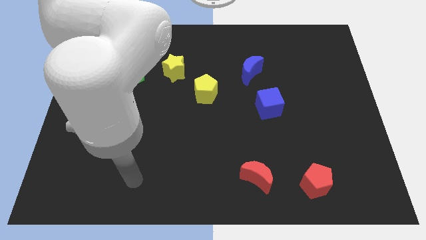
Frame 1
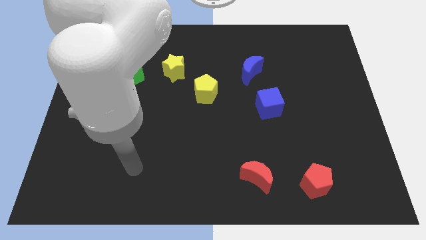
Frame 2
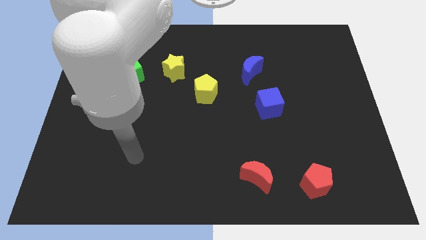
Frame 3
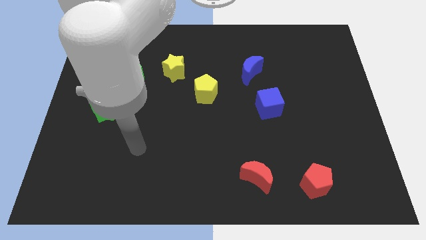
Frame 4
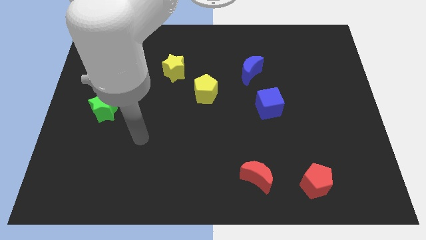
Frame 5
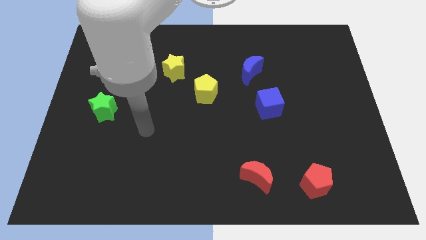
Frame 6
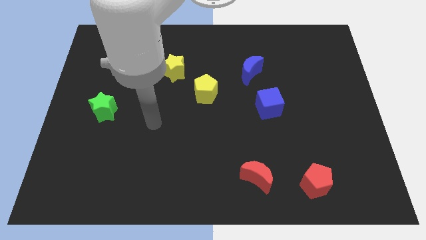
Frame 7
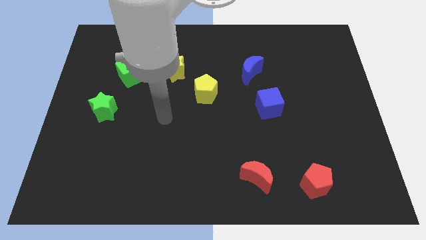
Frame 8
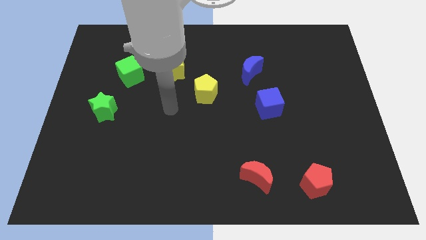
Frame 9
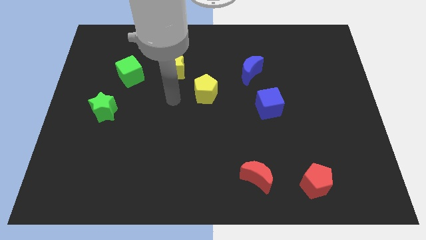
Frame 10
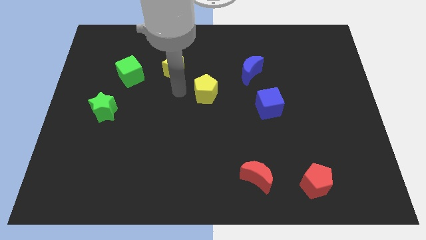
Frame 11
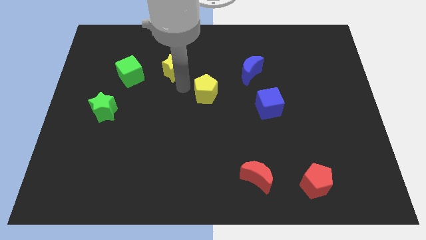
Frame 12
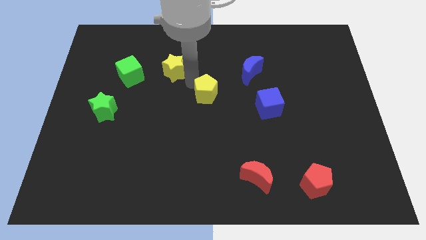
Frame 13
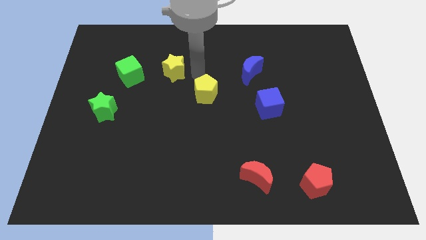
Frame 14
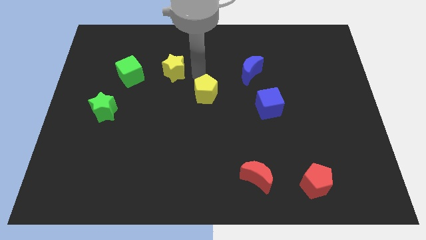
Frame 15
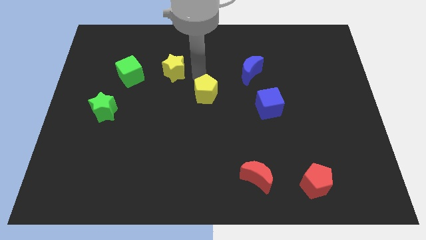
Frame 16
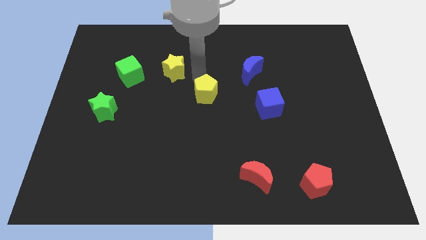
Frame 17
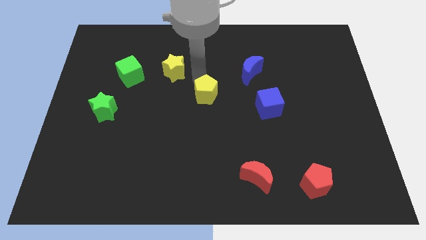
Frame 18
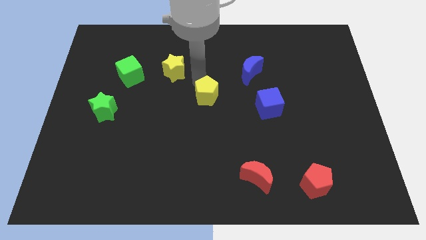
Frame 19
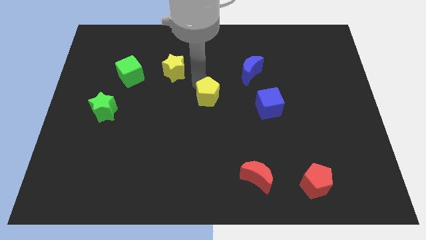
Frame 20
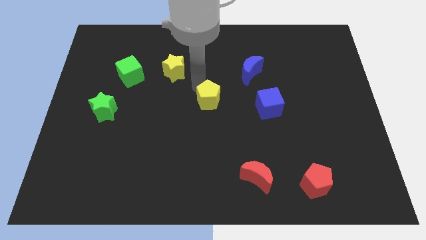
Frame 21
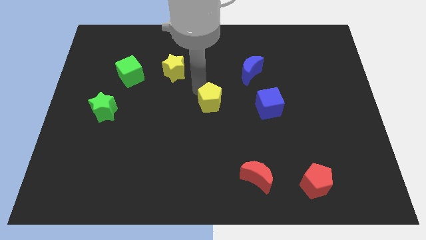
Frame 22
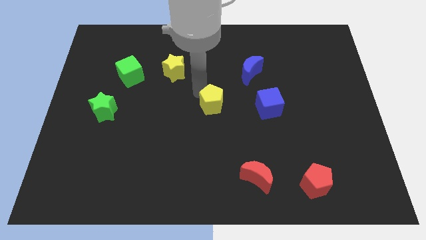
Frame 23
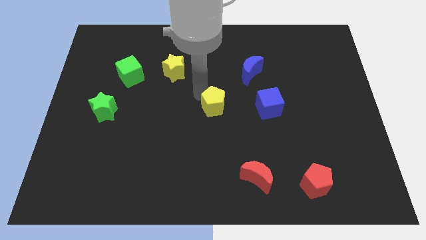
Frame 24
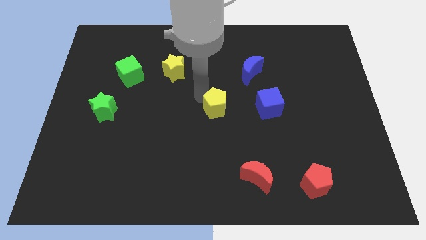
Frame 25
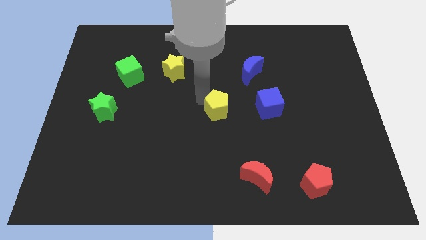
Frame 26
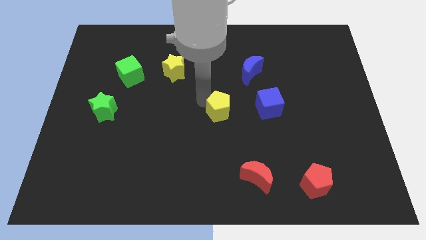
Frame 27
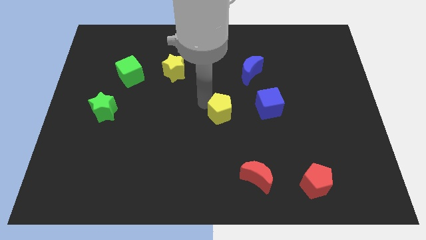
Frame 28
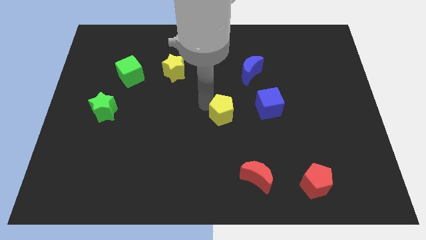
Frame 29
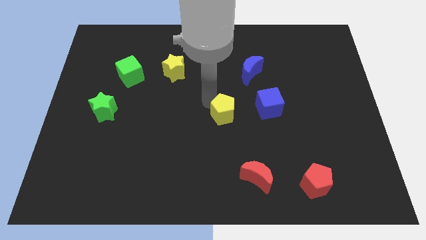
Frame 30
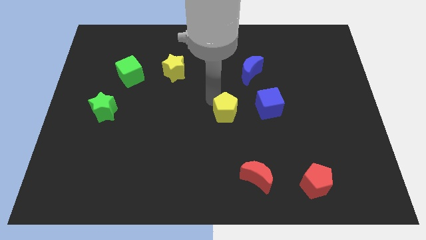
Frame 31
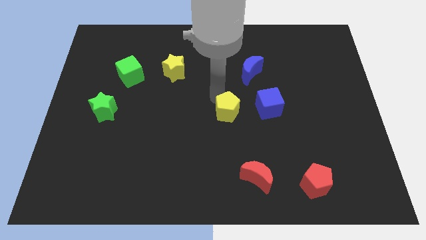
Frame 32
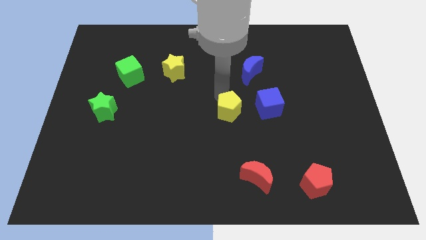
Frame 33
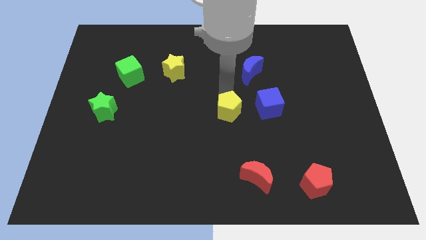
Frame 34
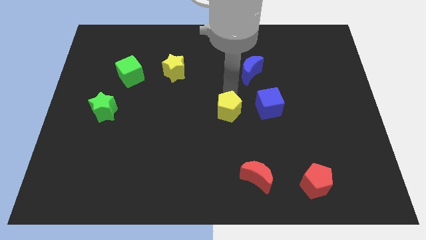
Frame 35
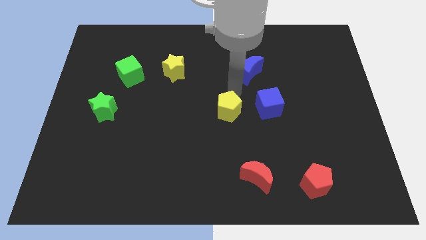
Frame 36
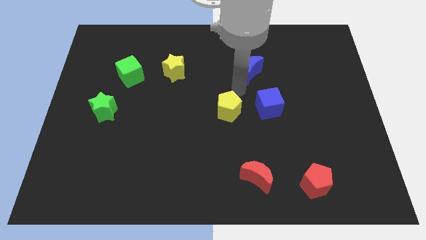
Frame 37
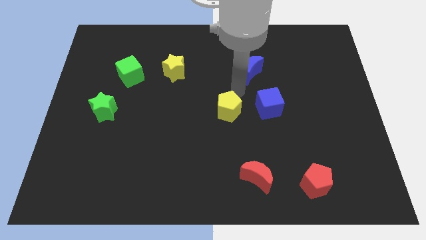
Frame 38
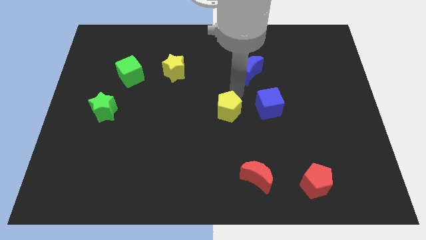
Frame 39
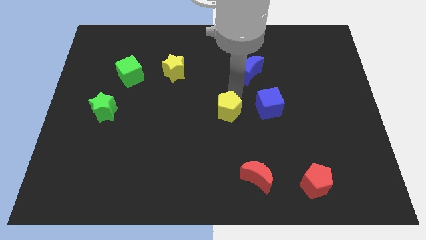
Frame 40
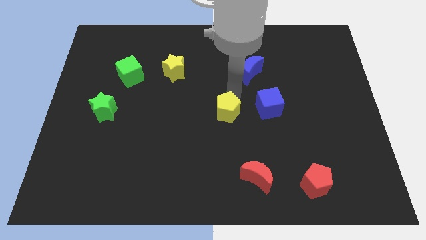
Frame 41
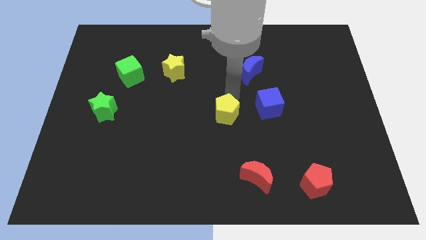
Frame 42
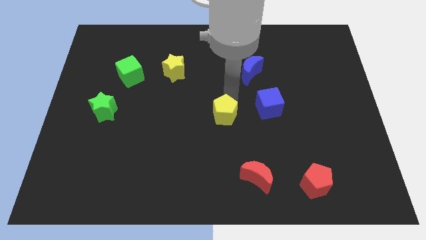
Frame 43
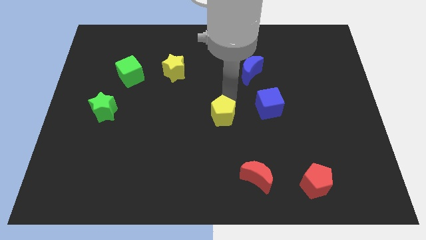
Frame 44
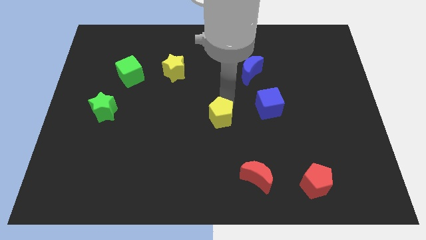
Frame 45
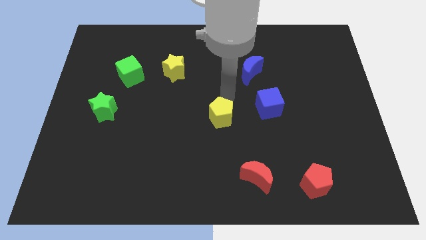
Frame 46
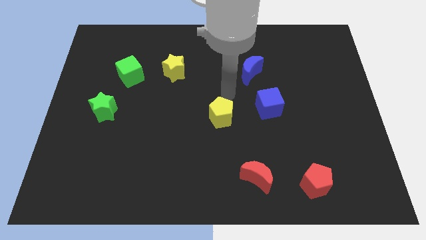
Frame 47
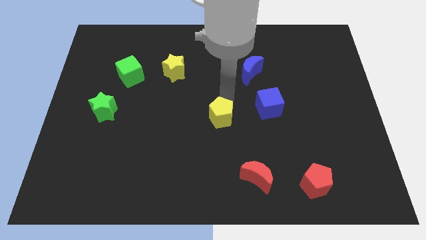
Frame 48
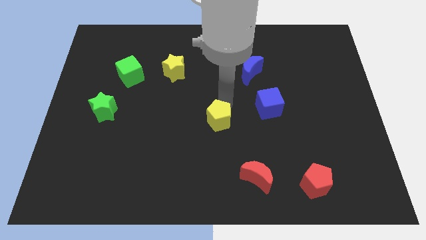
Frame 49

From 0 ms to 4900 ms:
slide the yellow pentagon downwards somewhat

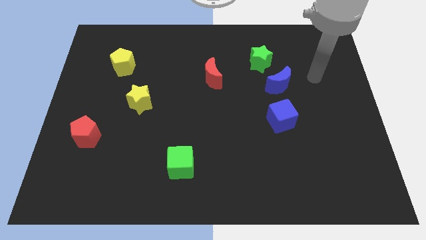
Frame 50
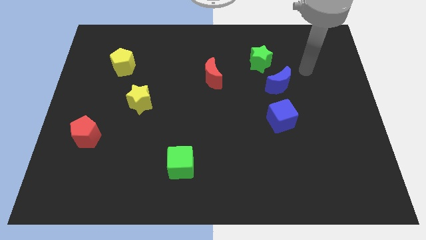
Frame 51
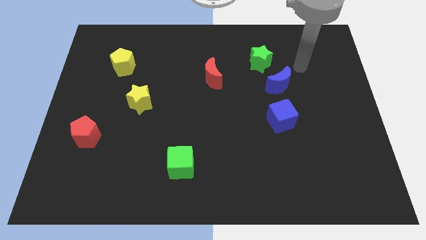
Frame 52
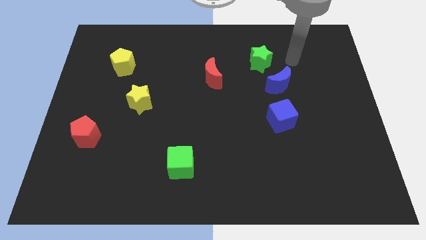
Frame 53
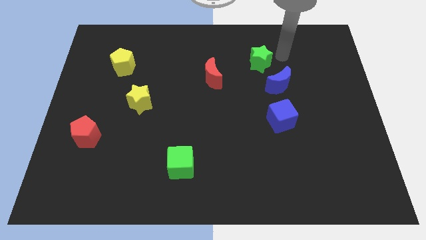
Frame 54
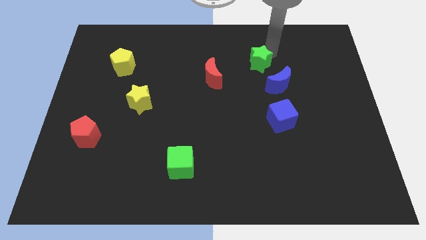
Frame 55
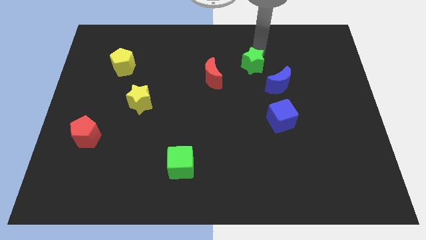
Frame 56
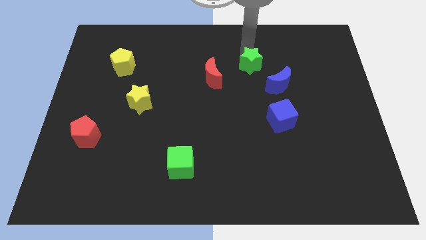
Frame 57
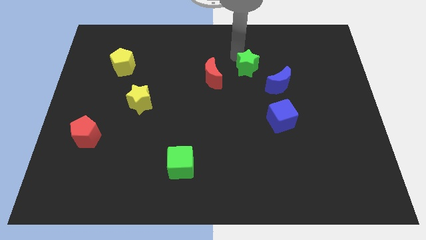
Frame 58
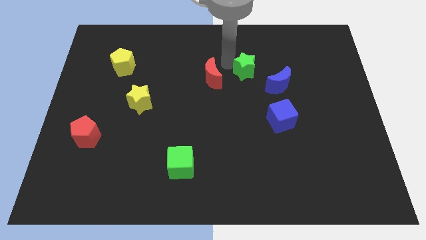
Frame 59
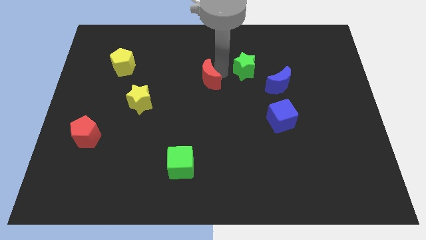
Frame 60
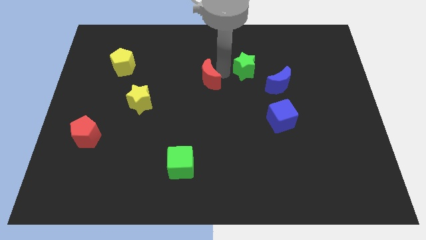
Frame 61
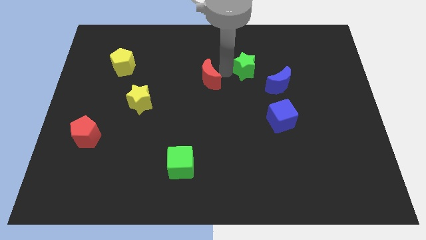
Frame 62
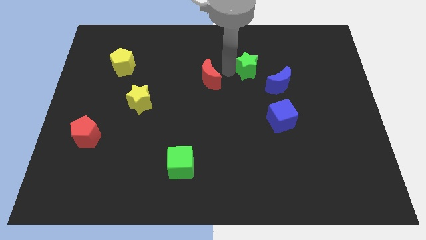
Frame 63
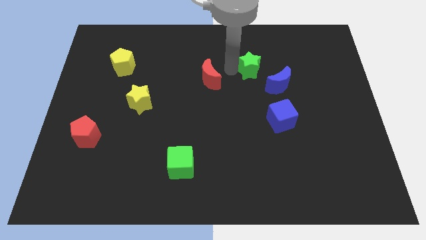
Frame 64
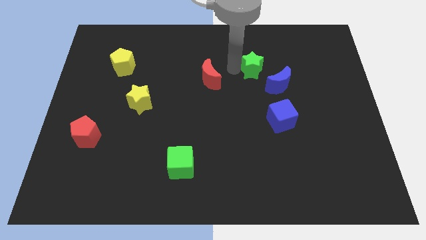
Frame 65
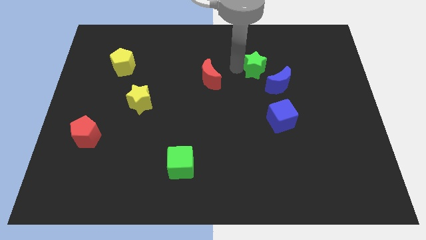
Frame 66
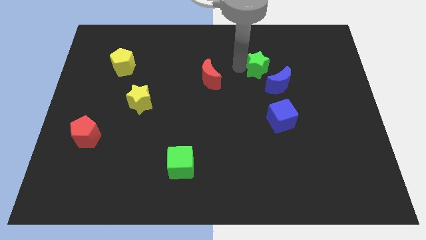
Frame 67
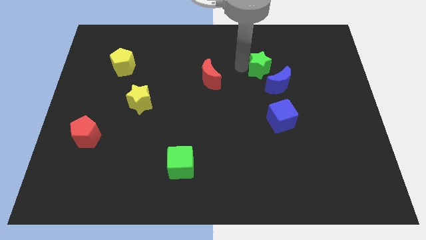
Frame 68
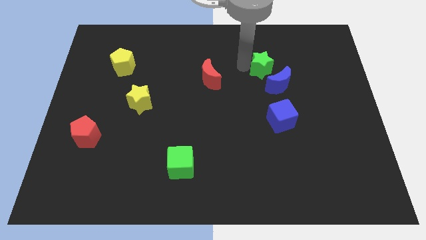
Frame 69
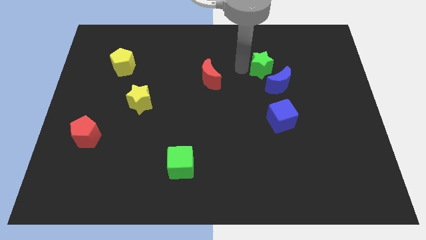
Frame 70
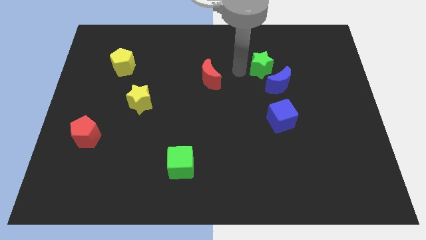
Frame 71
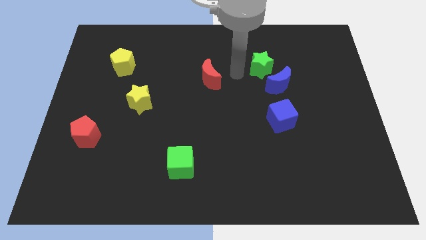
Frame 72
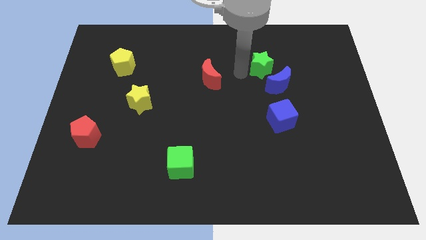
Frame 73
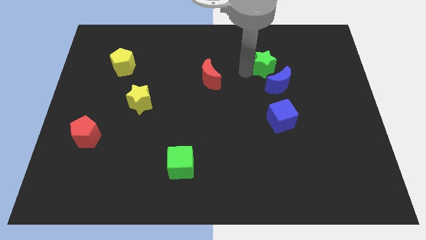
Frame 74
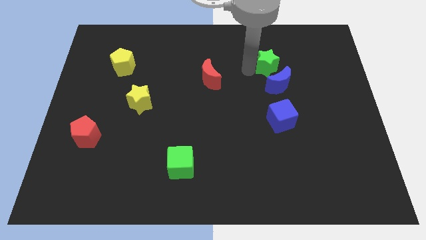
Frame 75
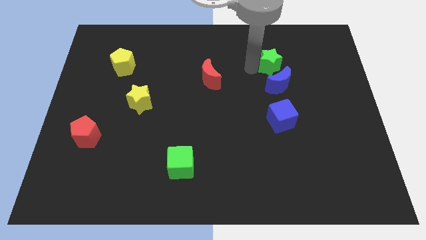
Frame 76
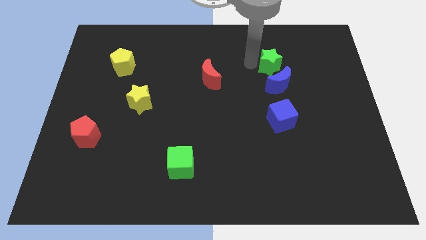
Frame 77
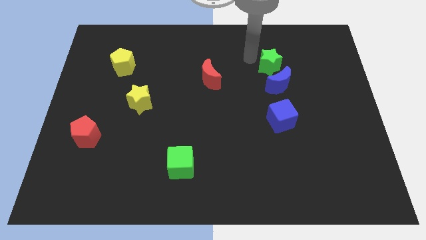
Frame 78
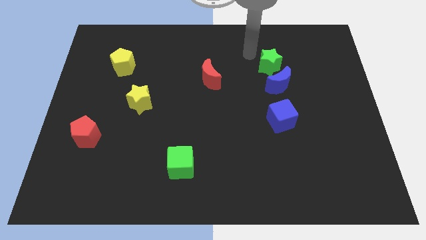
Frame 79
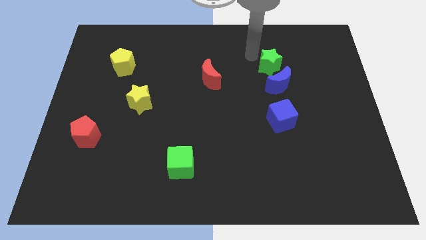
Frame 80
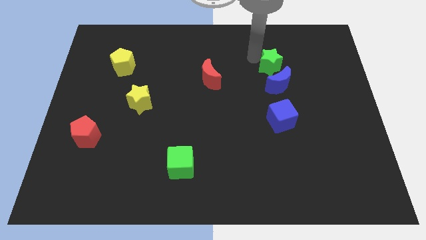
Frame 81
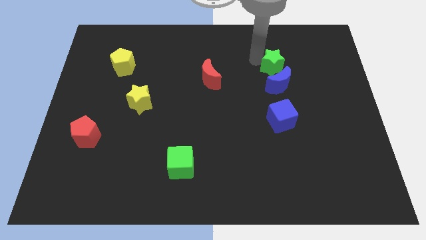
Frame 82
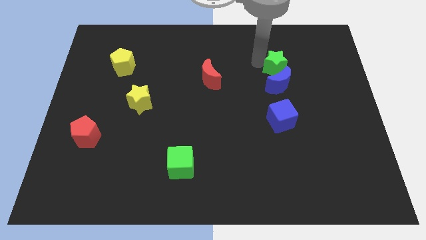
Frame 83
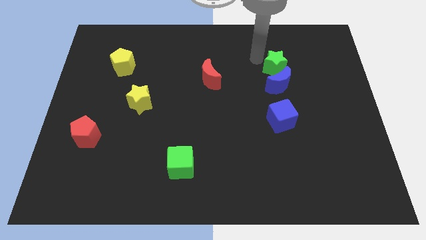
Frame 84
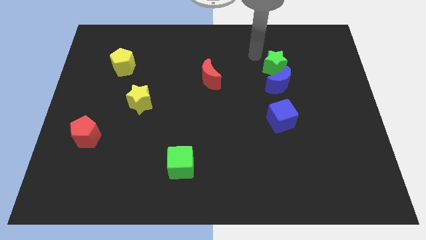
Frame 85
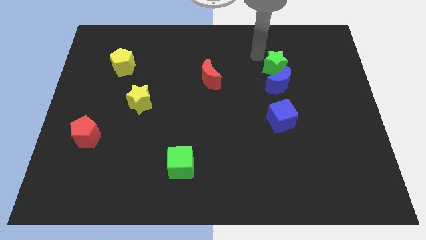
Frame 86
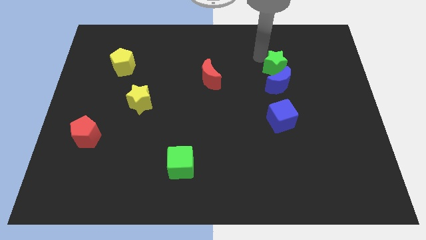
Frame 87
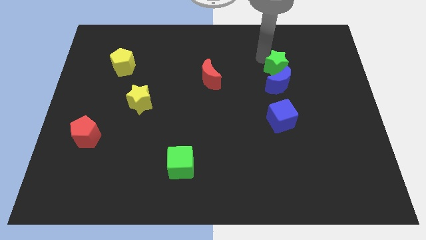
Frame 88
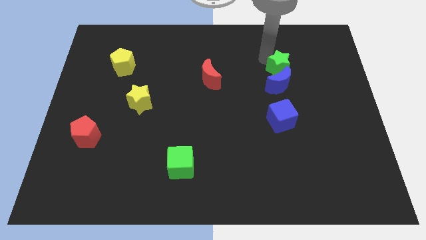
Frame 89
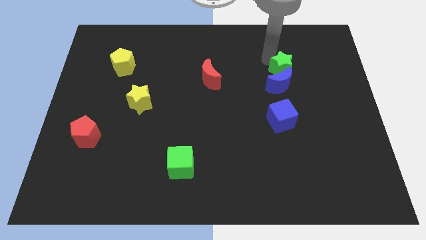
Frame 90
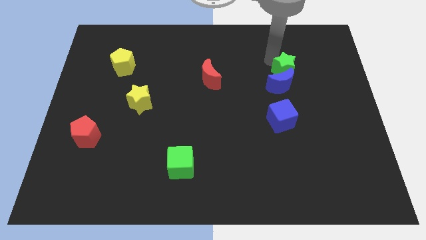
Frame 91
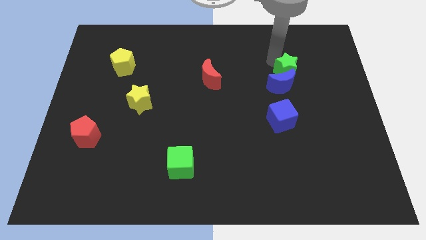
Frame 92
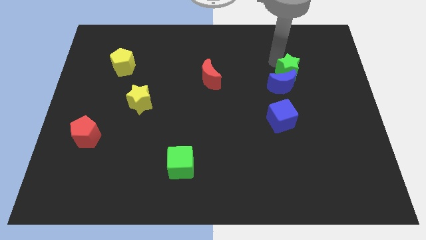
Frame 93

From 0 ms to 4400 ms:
slightly push the green star down and to the right
